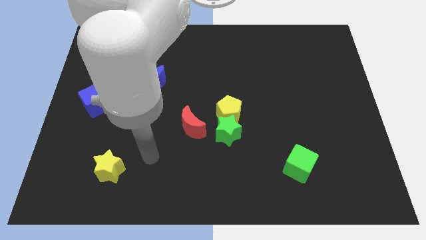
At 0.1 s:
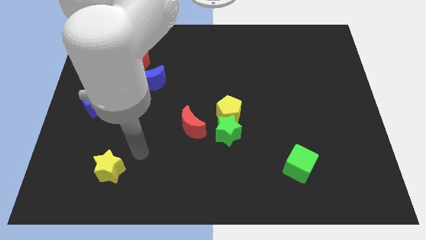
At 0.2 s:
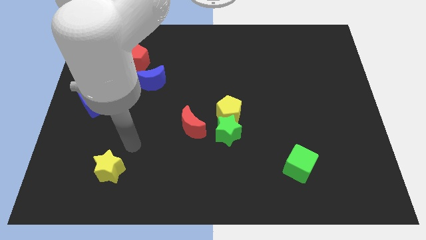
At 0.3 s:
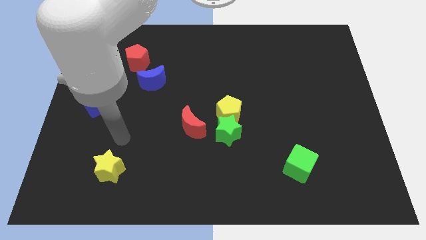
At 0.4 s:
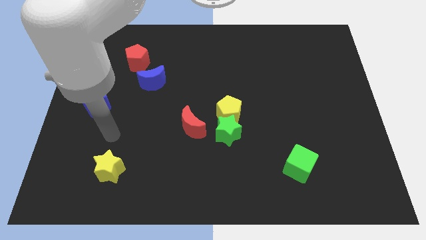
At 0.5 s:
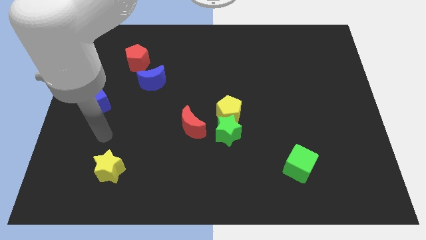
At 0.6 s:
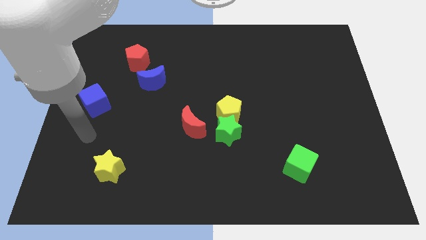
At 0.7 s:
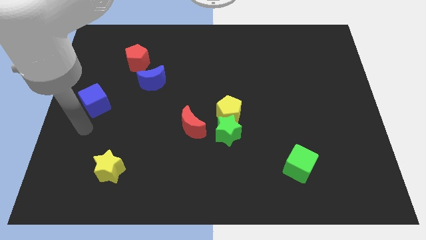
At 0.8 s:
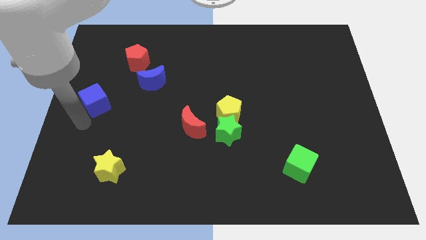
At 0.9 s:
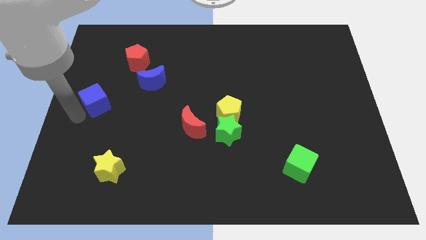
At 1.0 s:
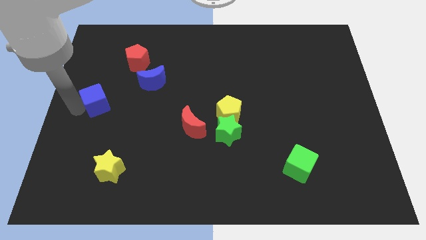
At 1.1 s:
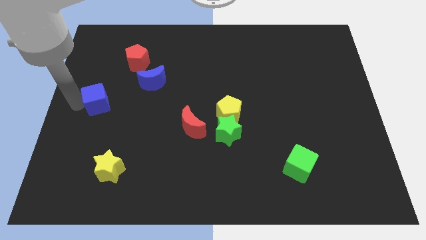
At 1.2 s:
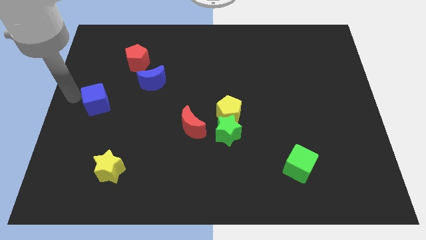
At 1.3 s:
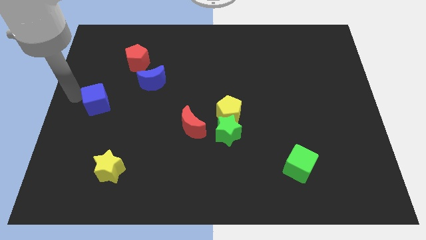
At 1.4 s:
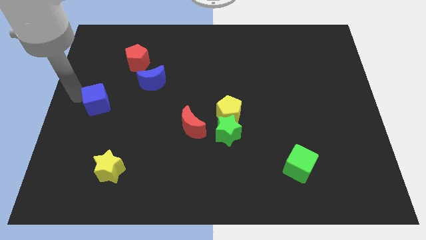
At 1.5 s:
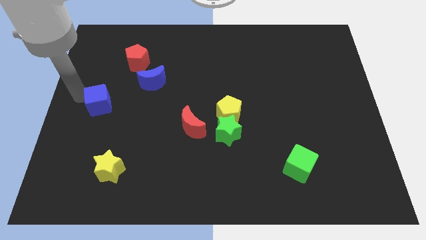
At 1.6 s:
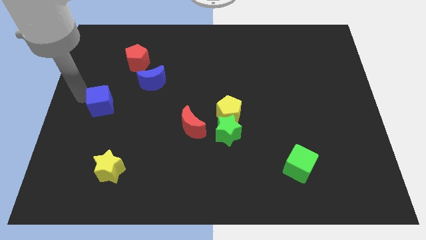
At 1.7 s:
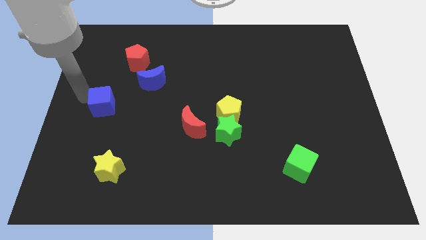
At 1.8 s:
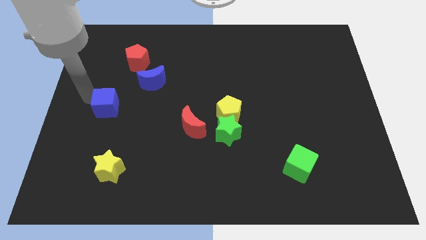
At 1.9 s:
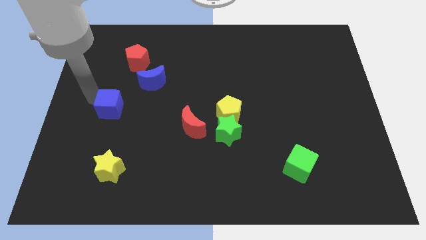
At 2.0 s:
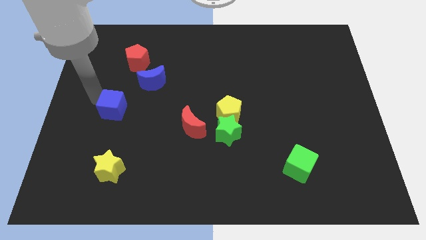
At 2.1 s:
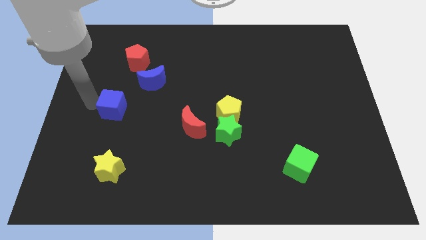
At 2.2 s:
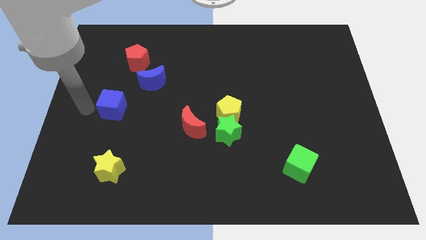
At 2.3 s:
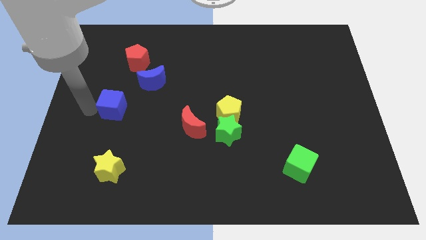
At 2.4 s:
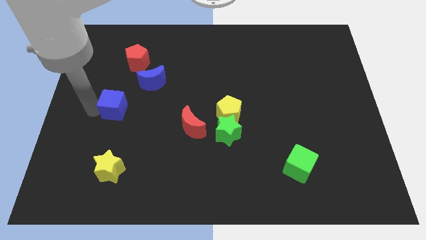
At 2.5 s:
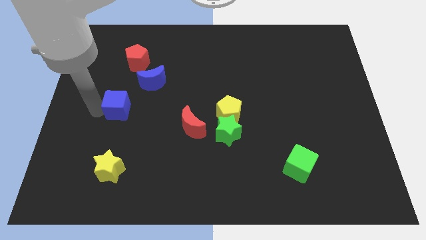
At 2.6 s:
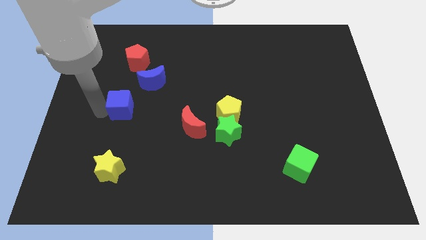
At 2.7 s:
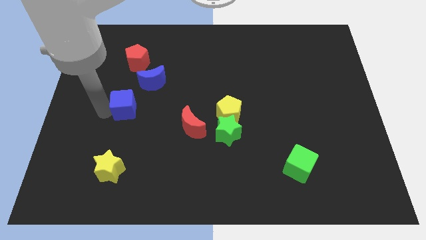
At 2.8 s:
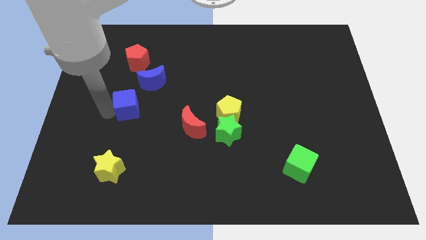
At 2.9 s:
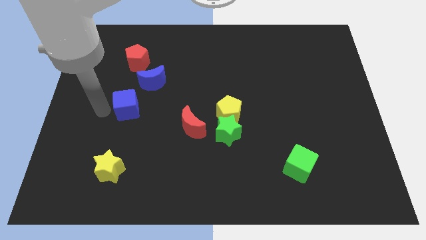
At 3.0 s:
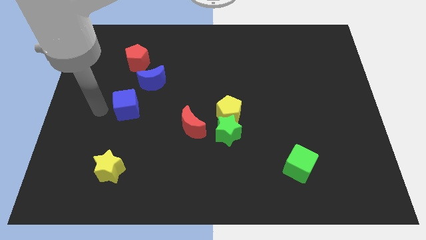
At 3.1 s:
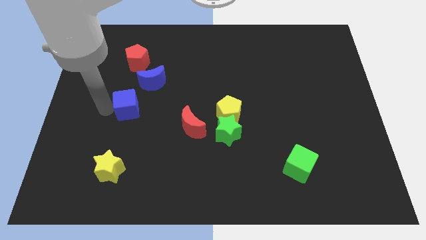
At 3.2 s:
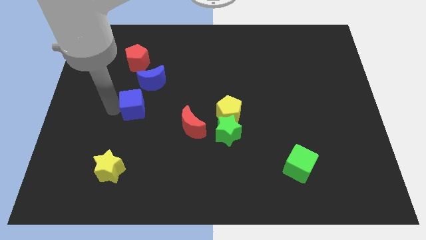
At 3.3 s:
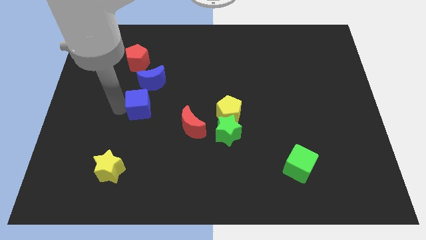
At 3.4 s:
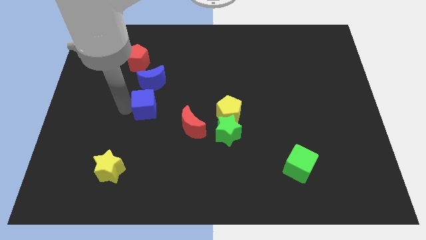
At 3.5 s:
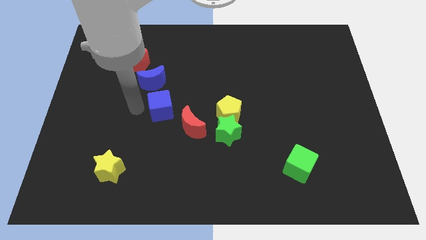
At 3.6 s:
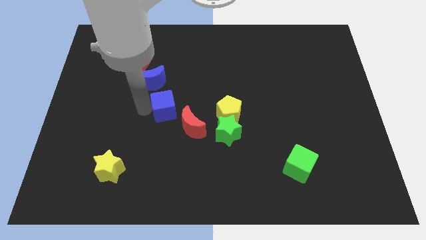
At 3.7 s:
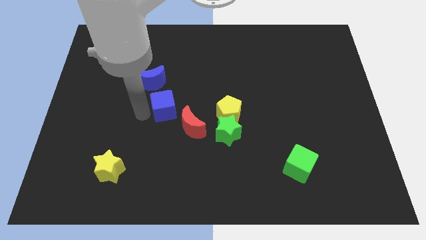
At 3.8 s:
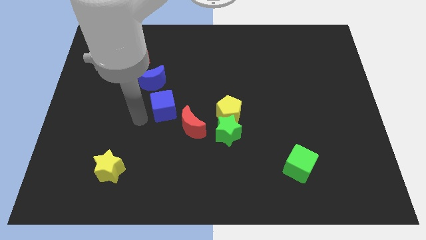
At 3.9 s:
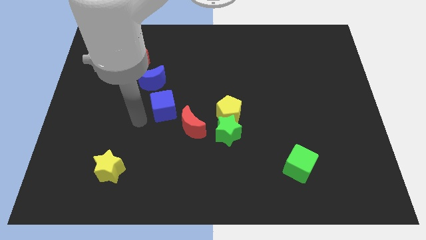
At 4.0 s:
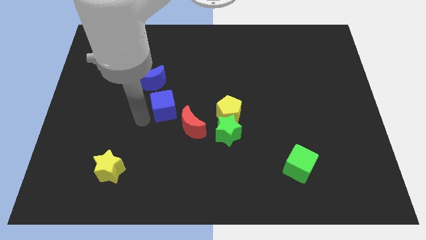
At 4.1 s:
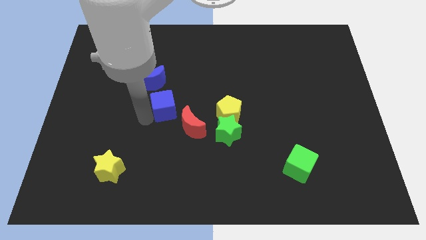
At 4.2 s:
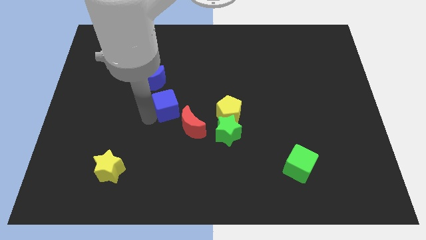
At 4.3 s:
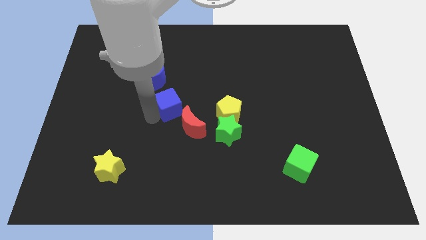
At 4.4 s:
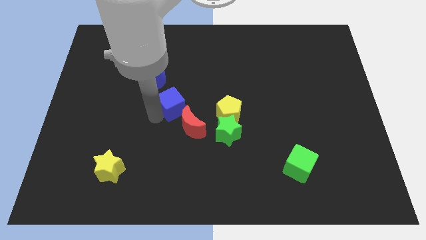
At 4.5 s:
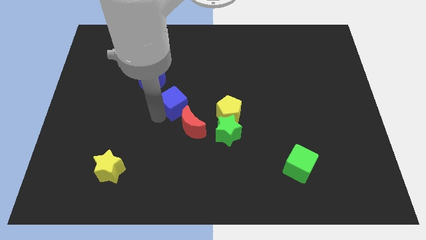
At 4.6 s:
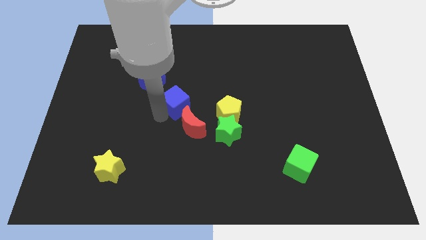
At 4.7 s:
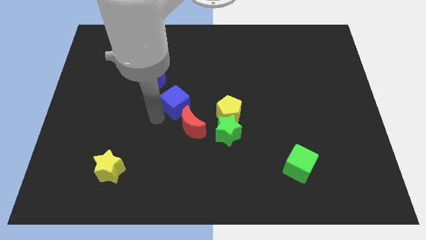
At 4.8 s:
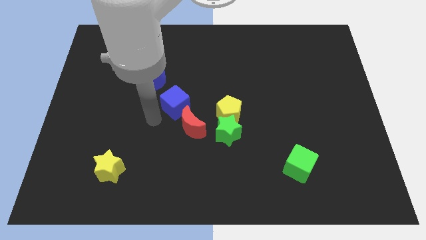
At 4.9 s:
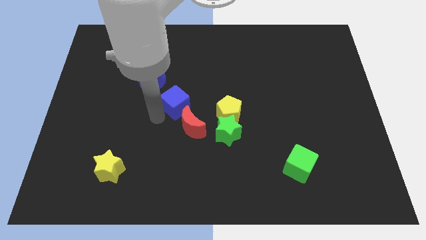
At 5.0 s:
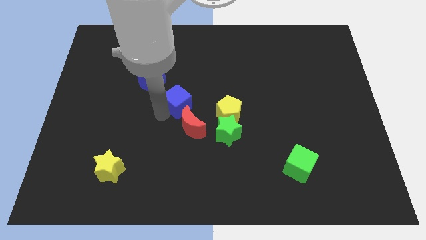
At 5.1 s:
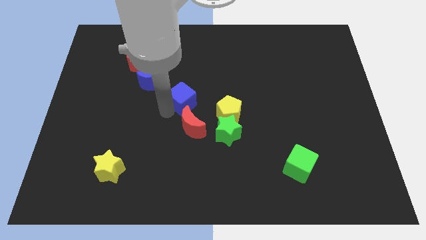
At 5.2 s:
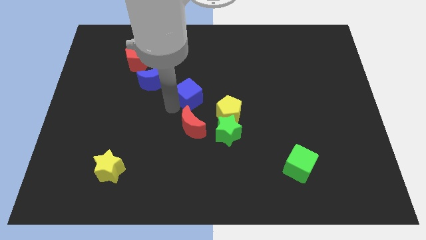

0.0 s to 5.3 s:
slide the blue cube to the top left side of the yellow pentagon

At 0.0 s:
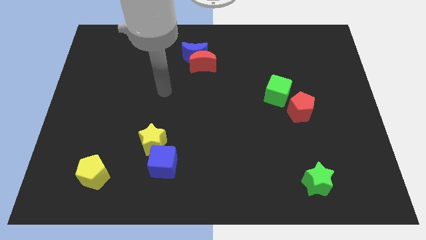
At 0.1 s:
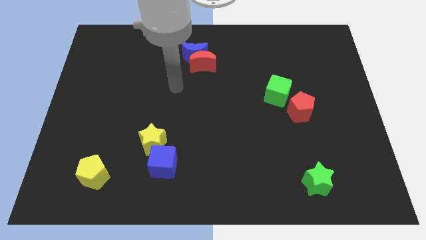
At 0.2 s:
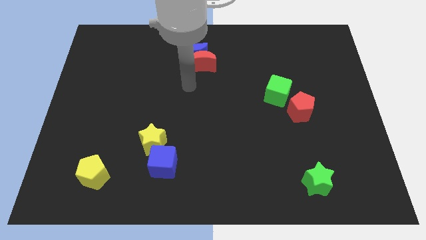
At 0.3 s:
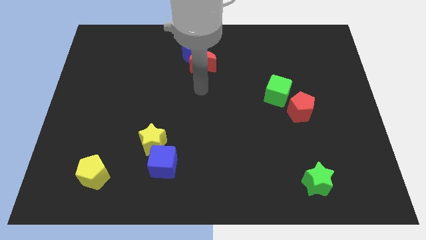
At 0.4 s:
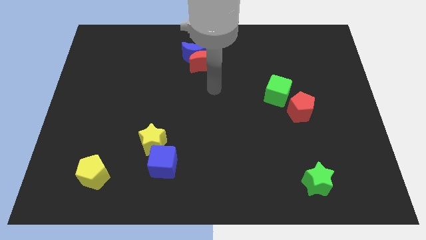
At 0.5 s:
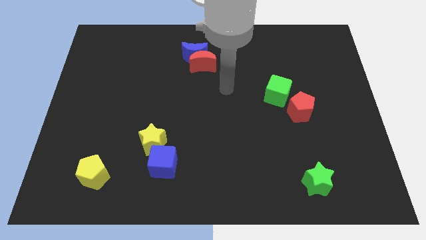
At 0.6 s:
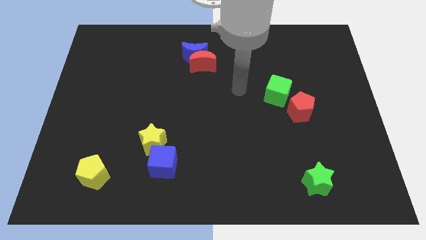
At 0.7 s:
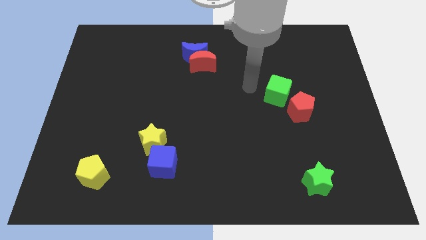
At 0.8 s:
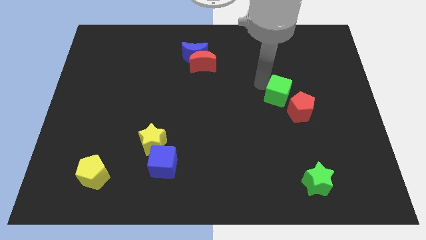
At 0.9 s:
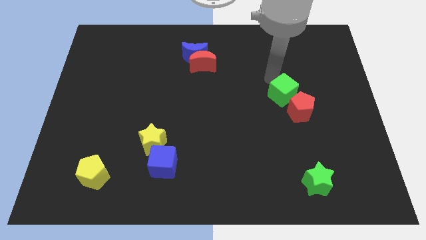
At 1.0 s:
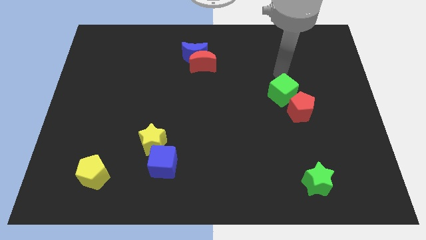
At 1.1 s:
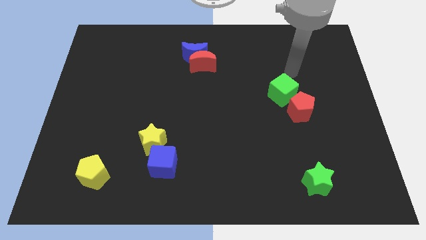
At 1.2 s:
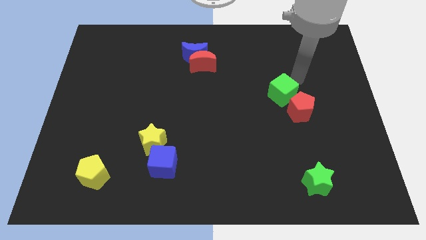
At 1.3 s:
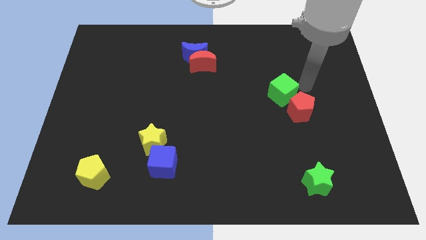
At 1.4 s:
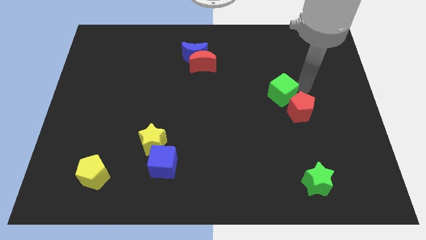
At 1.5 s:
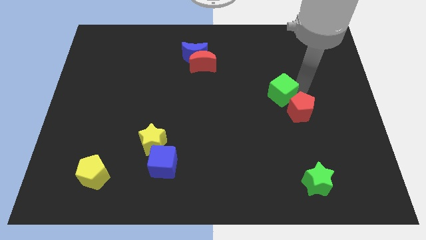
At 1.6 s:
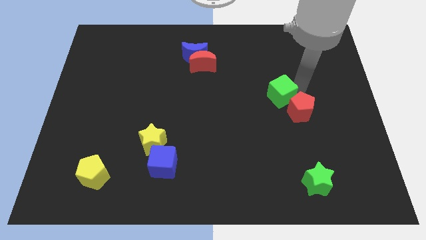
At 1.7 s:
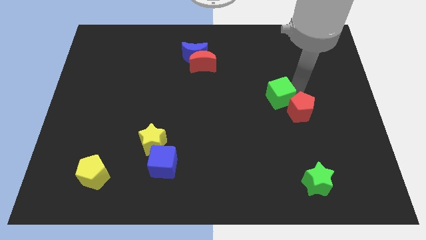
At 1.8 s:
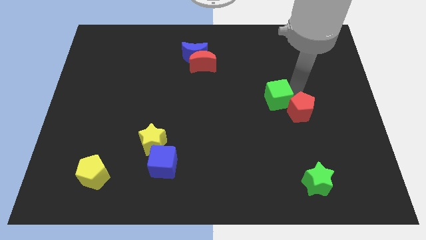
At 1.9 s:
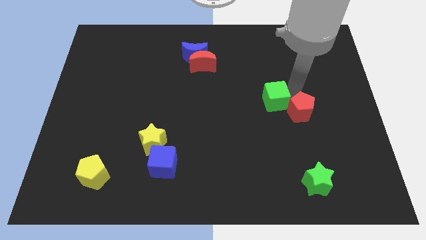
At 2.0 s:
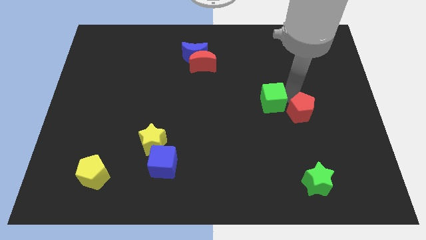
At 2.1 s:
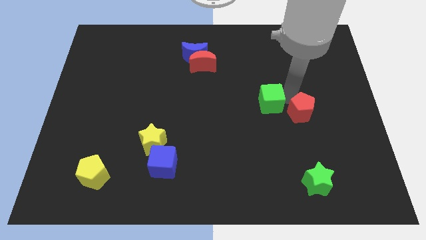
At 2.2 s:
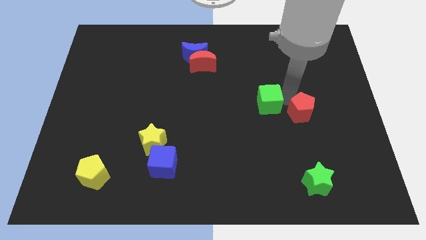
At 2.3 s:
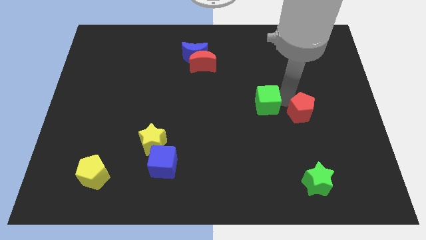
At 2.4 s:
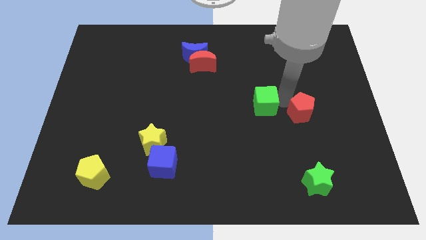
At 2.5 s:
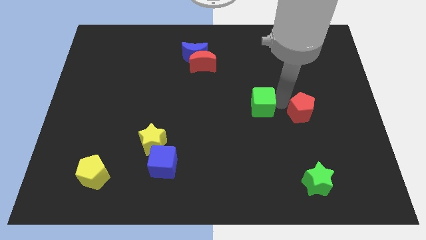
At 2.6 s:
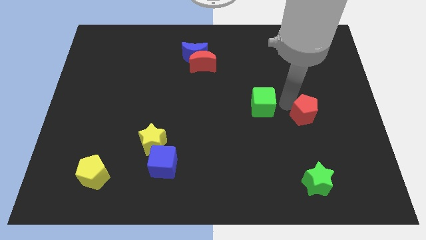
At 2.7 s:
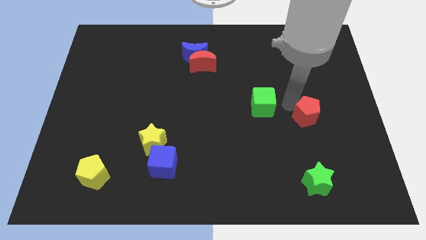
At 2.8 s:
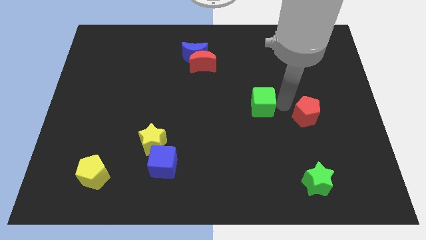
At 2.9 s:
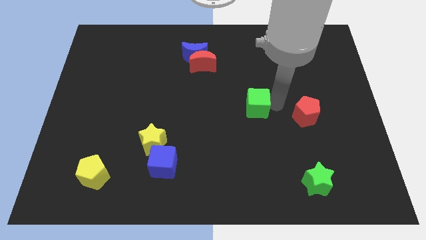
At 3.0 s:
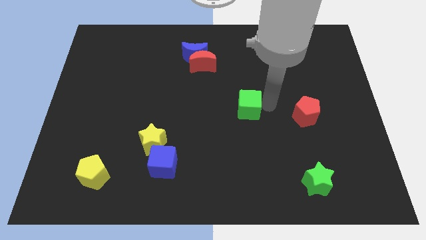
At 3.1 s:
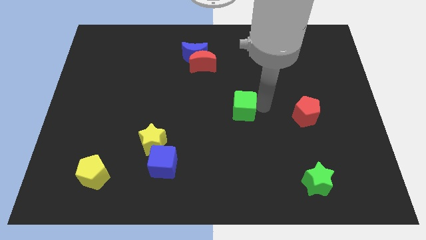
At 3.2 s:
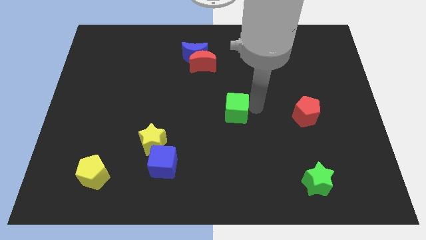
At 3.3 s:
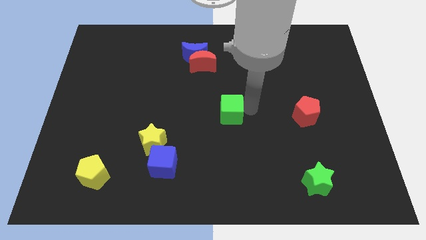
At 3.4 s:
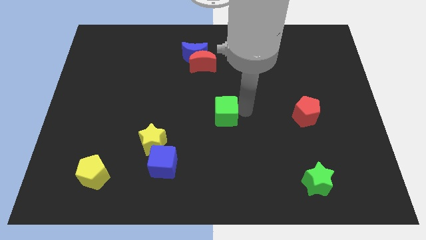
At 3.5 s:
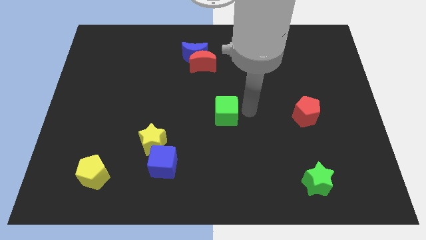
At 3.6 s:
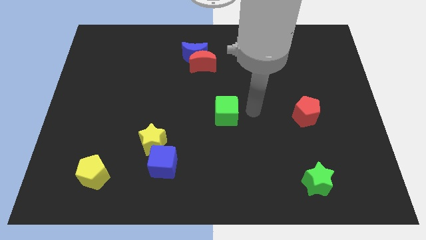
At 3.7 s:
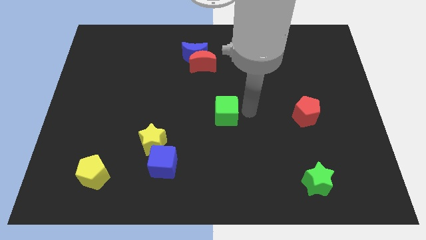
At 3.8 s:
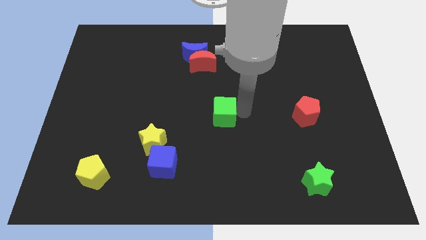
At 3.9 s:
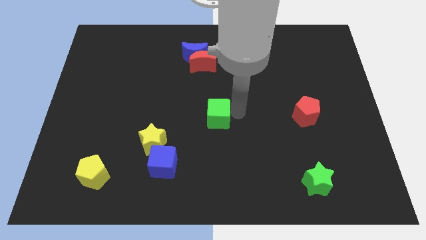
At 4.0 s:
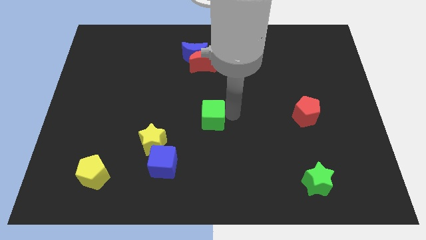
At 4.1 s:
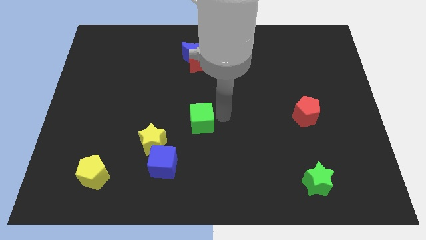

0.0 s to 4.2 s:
put the green cube diagonally up and to the right of the yellow star
